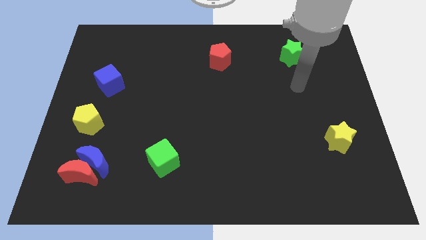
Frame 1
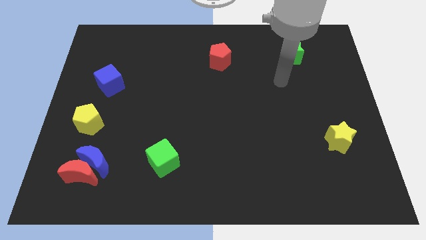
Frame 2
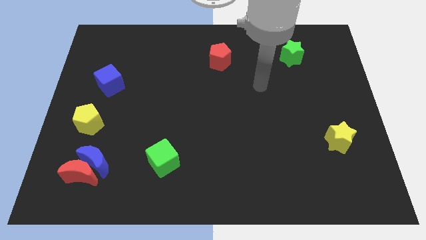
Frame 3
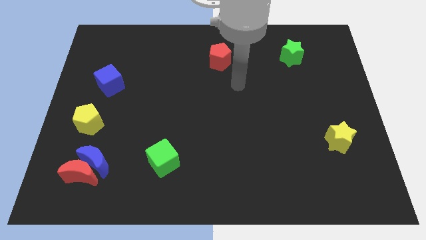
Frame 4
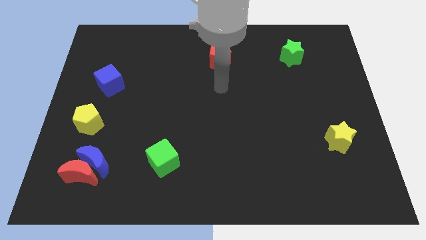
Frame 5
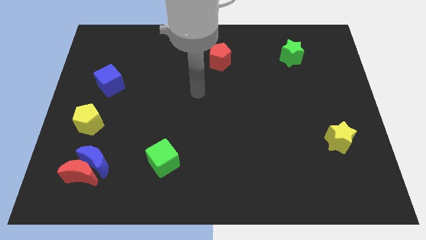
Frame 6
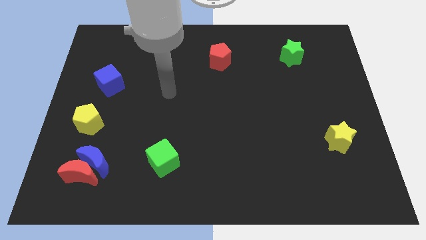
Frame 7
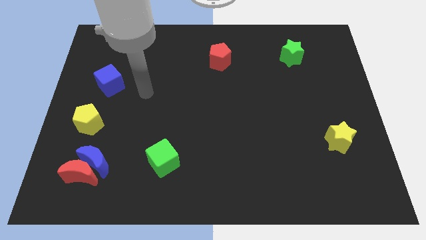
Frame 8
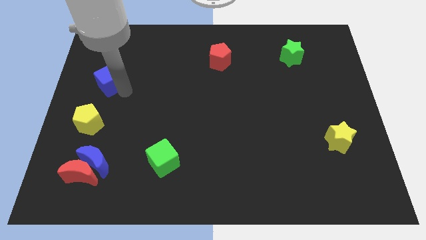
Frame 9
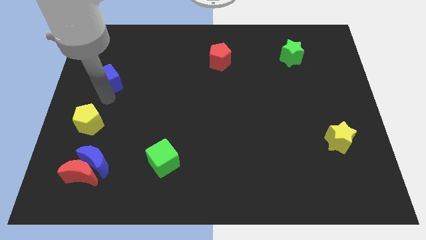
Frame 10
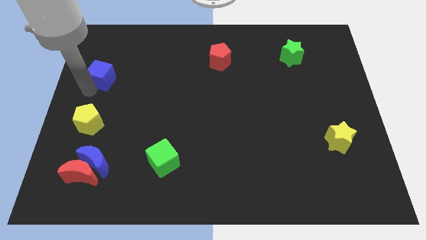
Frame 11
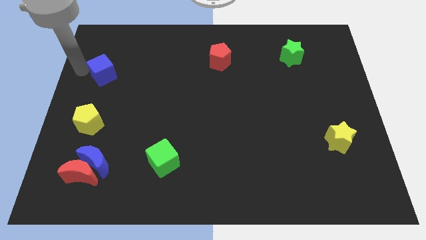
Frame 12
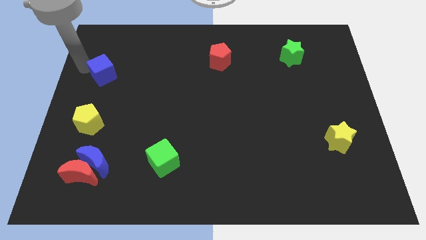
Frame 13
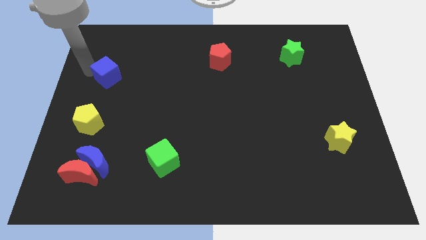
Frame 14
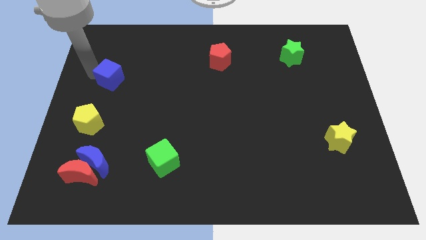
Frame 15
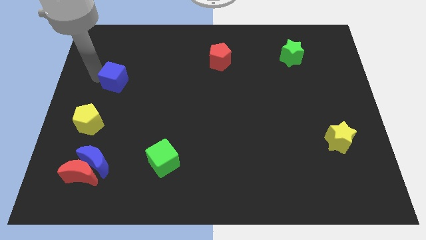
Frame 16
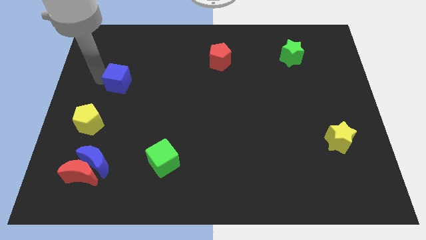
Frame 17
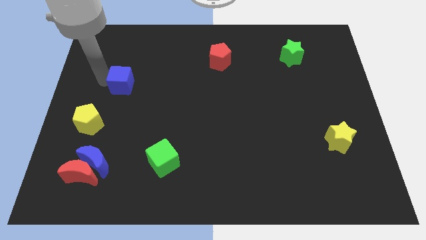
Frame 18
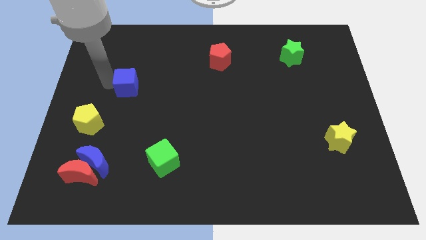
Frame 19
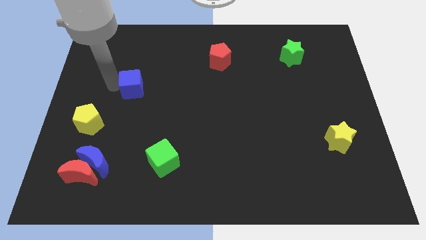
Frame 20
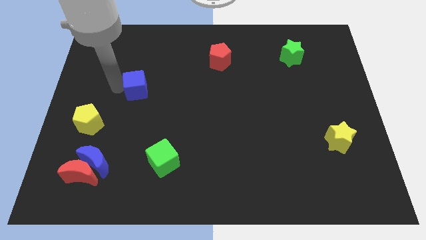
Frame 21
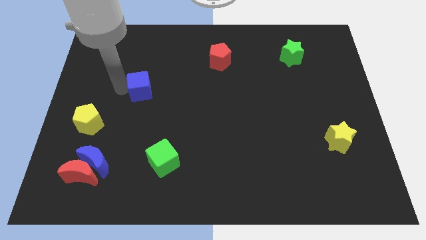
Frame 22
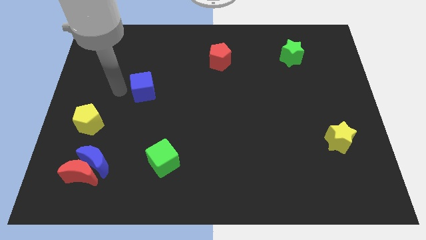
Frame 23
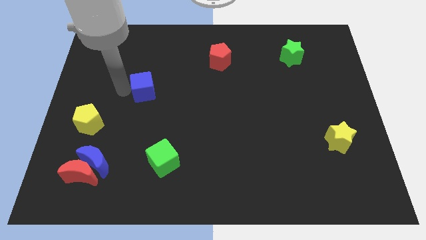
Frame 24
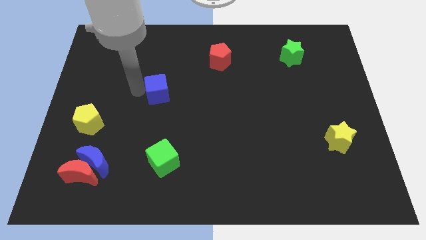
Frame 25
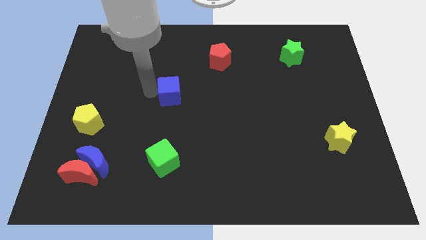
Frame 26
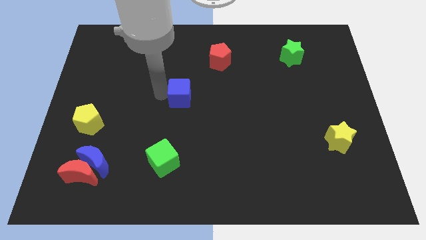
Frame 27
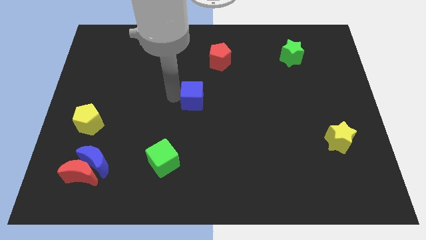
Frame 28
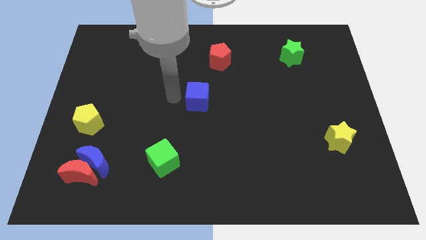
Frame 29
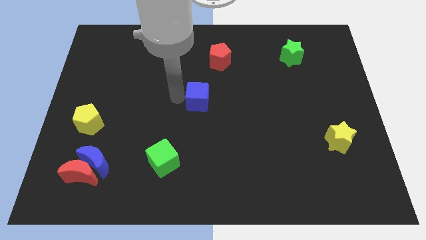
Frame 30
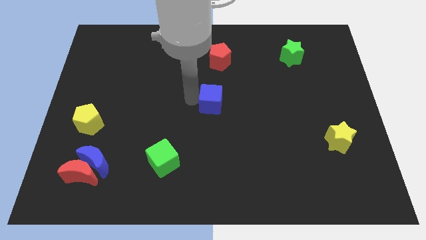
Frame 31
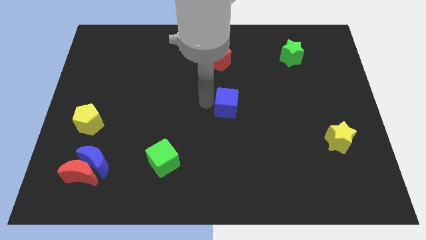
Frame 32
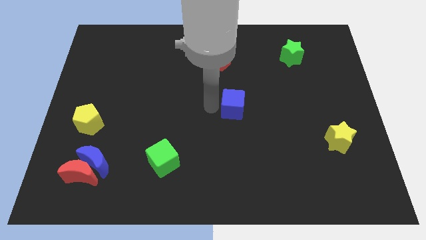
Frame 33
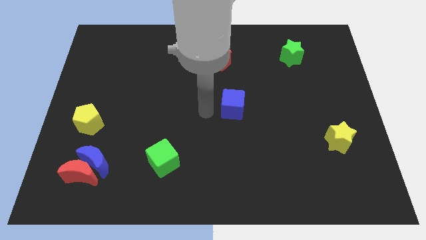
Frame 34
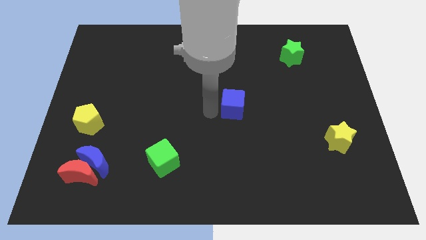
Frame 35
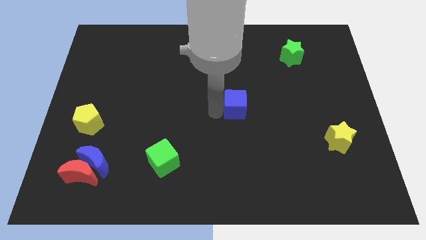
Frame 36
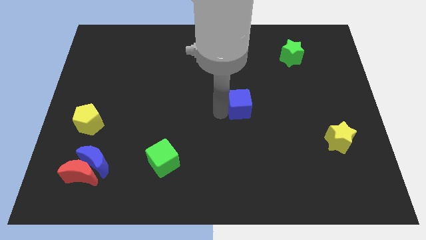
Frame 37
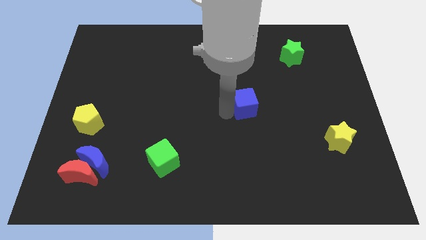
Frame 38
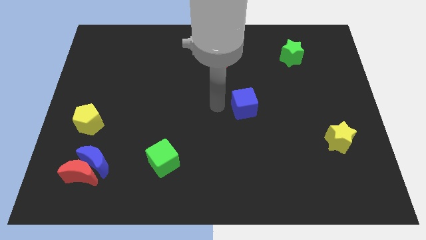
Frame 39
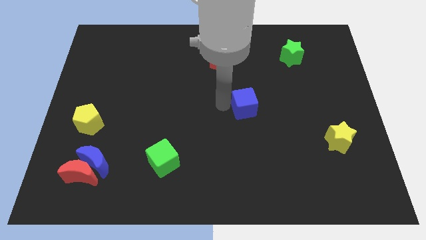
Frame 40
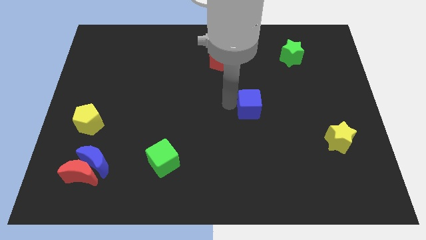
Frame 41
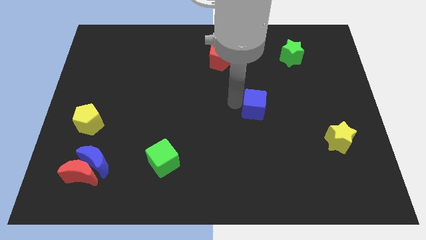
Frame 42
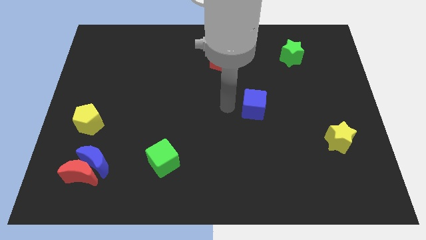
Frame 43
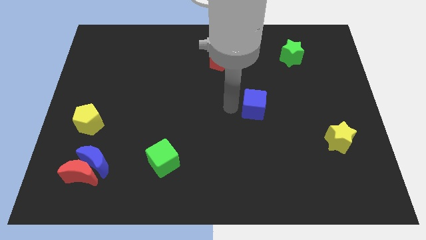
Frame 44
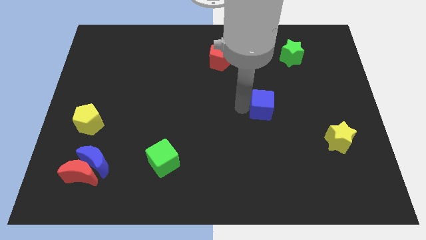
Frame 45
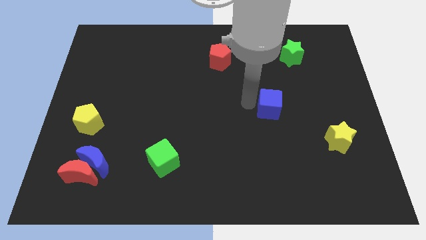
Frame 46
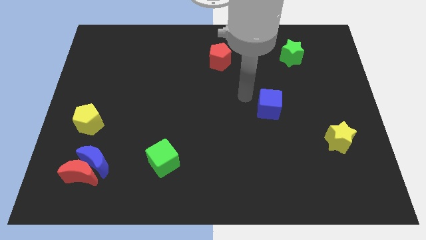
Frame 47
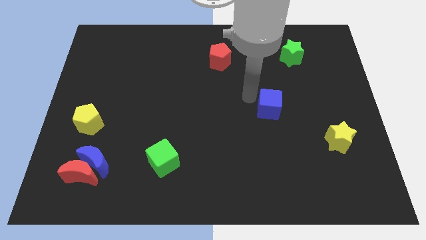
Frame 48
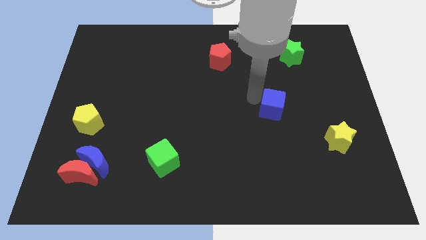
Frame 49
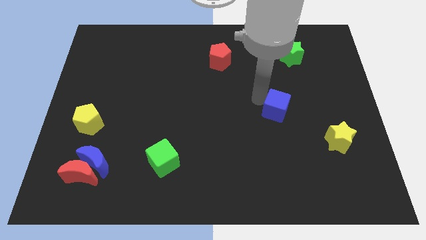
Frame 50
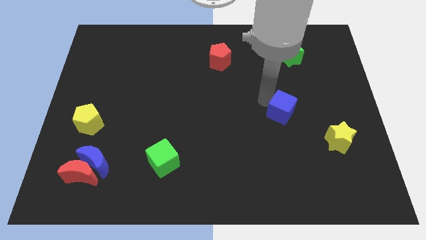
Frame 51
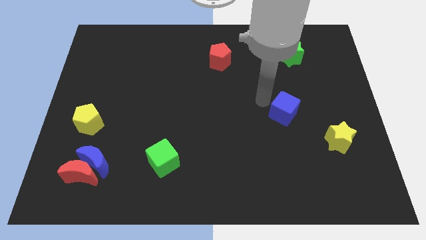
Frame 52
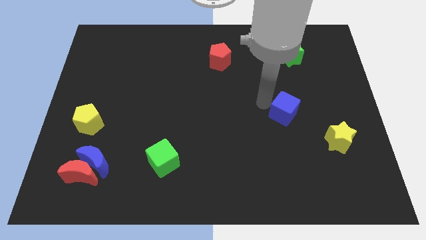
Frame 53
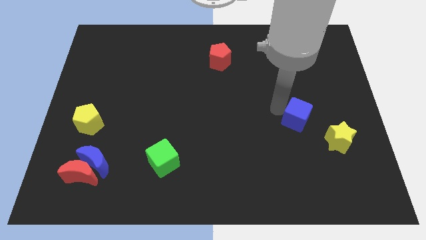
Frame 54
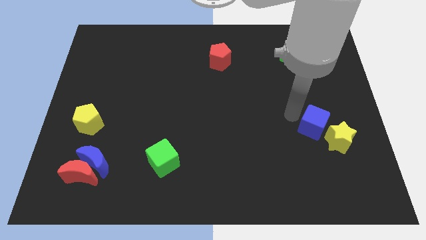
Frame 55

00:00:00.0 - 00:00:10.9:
slide the blue cube next to the yellow star

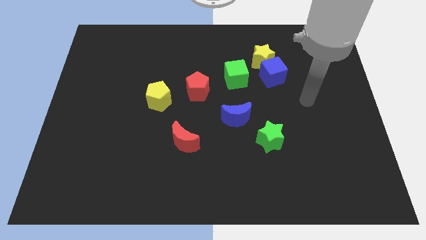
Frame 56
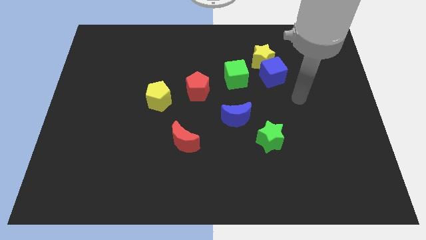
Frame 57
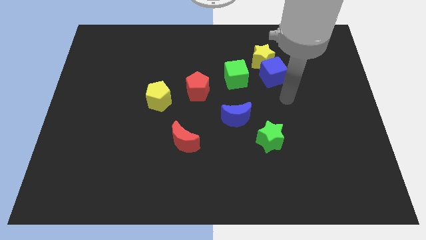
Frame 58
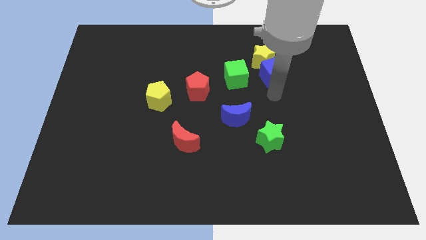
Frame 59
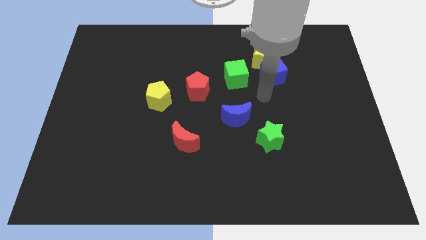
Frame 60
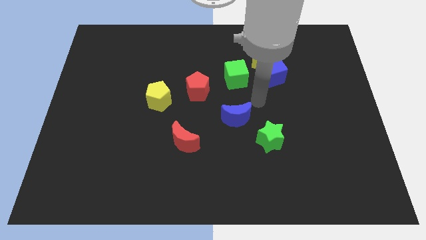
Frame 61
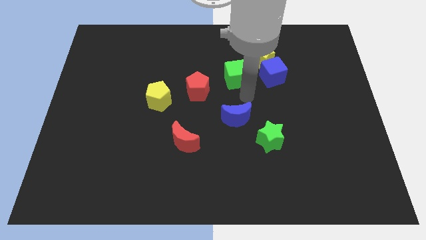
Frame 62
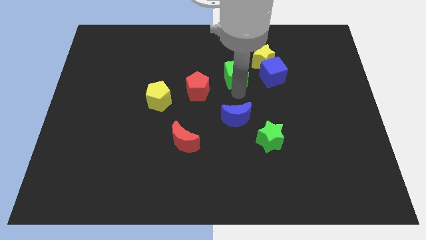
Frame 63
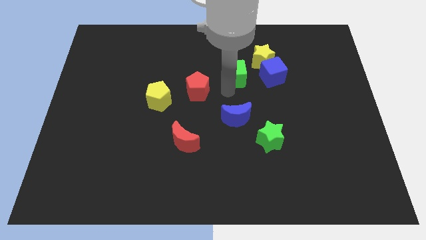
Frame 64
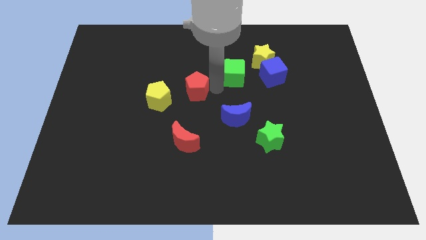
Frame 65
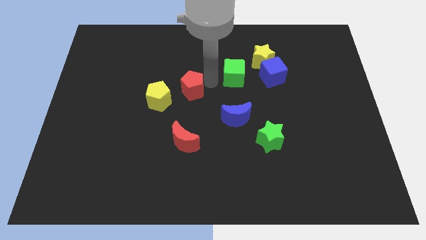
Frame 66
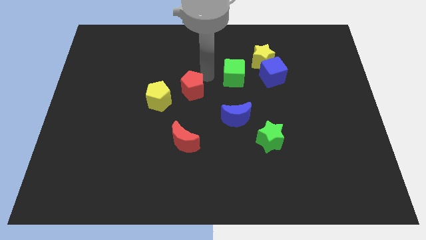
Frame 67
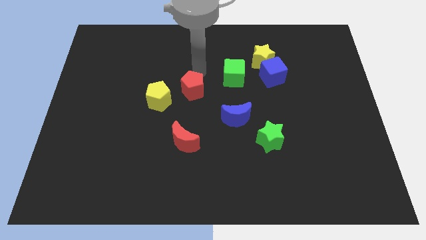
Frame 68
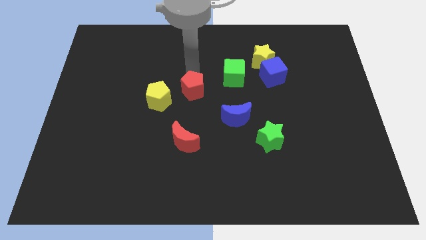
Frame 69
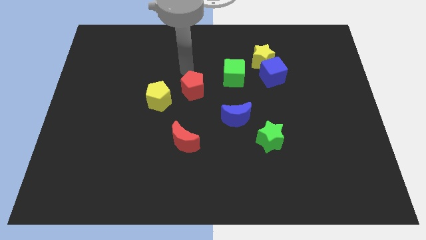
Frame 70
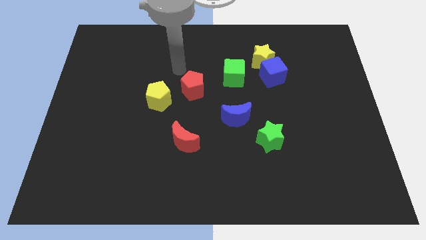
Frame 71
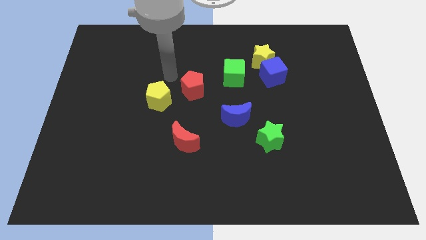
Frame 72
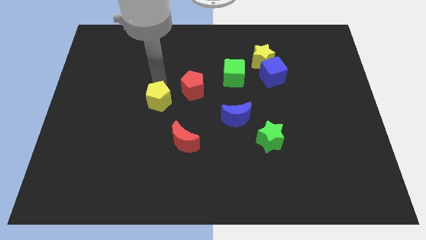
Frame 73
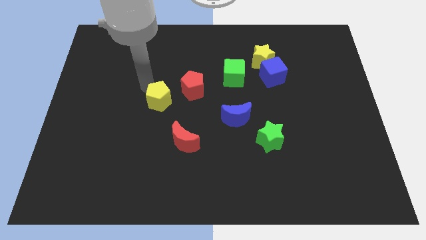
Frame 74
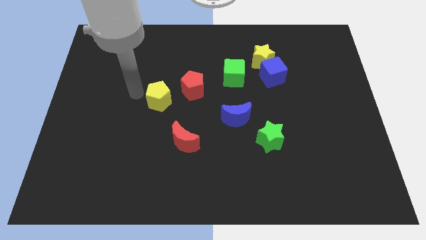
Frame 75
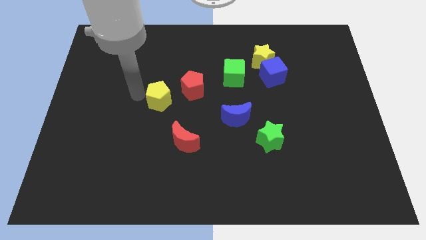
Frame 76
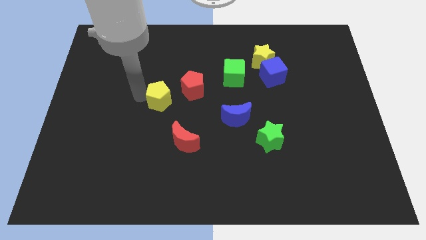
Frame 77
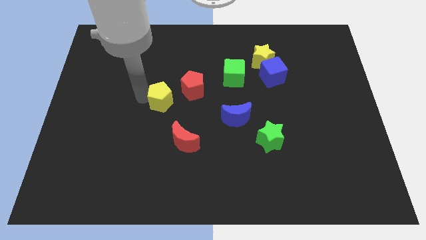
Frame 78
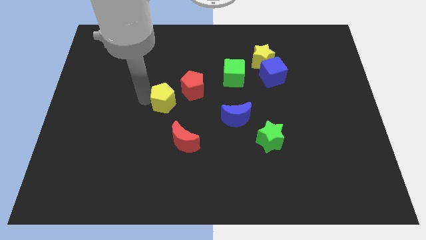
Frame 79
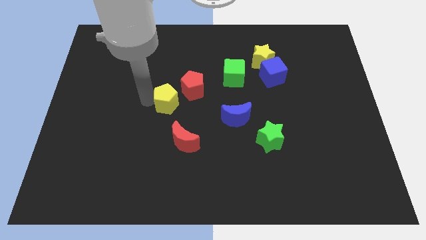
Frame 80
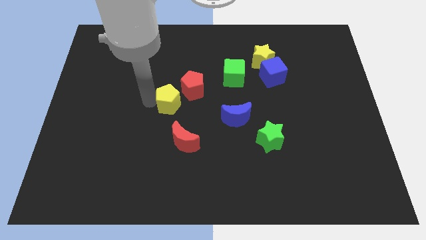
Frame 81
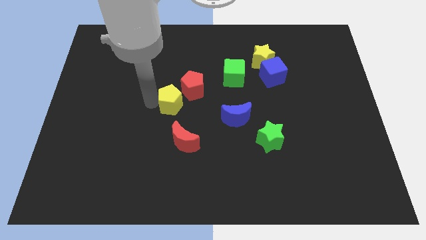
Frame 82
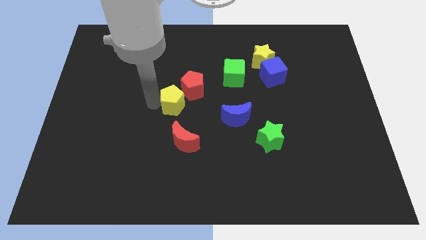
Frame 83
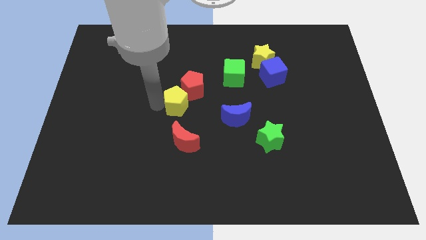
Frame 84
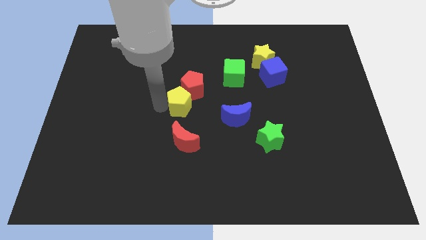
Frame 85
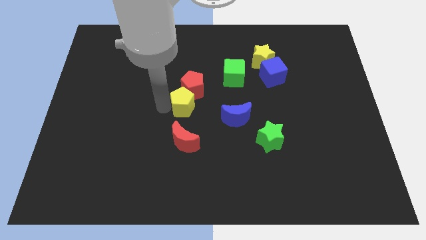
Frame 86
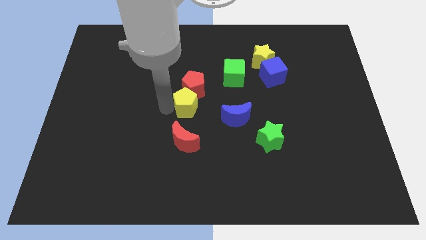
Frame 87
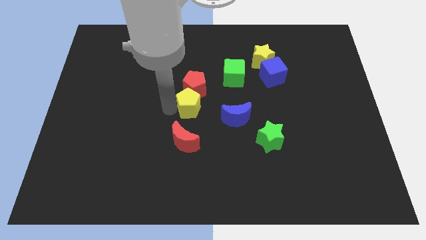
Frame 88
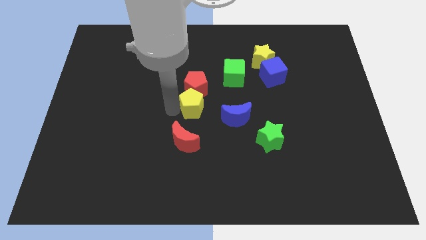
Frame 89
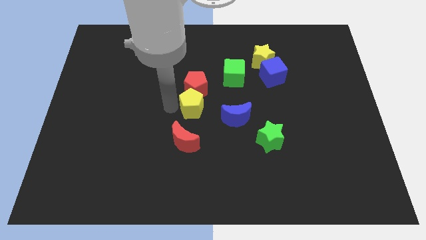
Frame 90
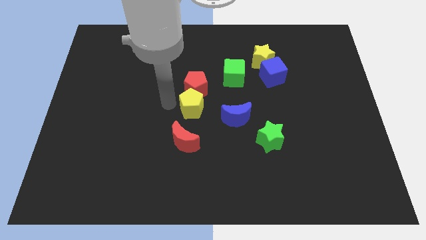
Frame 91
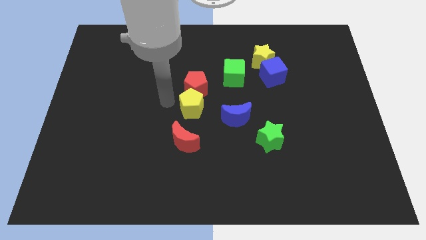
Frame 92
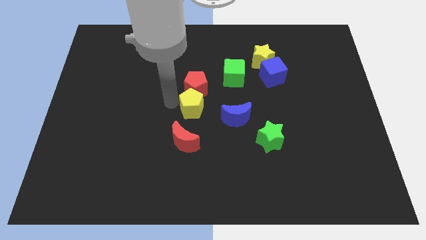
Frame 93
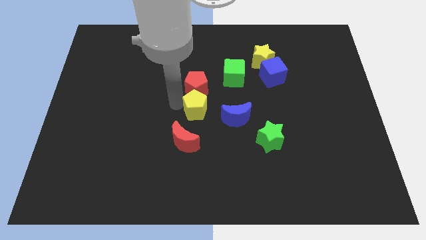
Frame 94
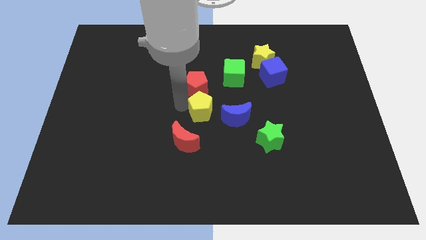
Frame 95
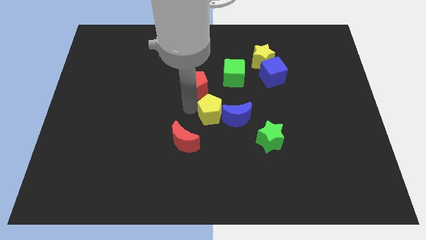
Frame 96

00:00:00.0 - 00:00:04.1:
put the yellow pentagon next to the blue moon
